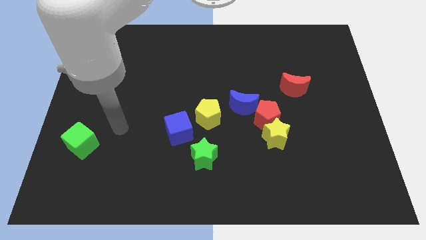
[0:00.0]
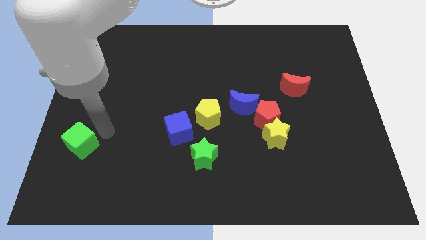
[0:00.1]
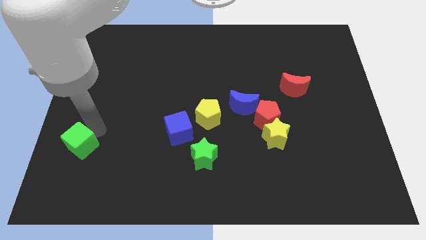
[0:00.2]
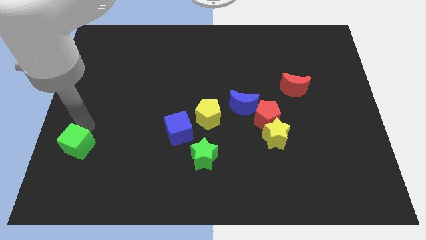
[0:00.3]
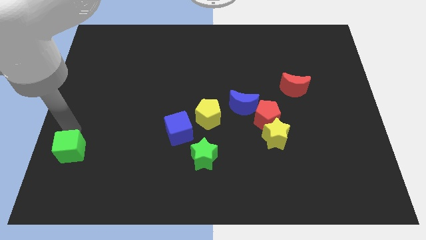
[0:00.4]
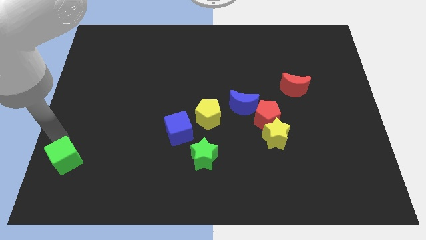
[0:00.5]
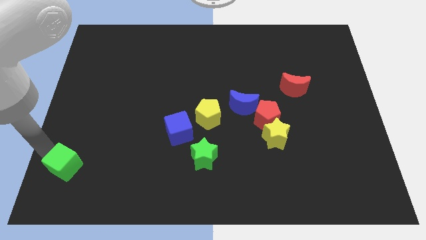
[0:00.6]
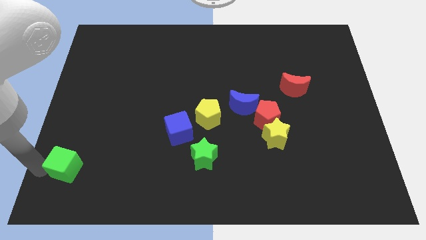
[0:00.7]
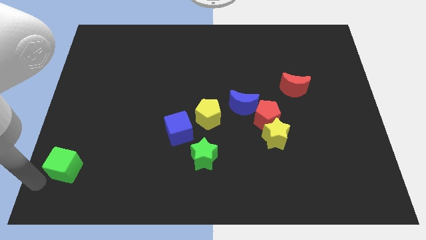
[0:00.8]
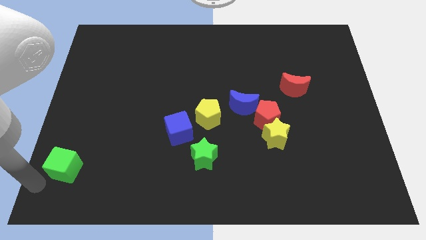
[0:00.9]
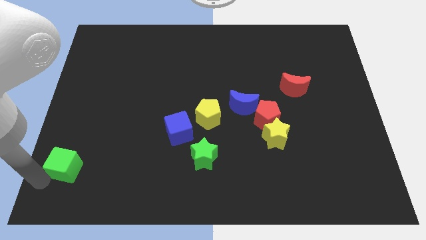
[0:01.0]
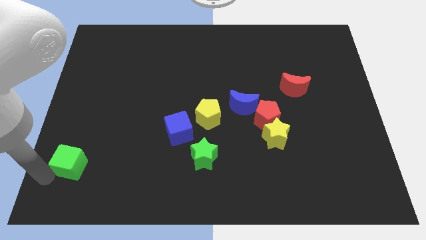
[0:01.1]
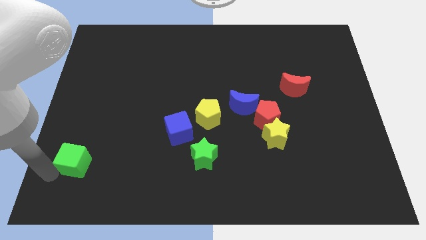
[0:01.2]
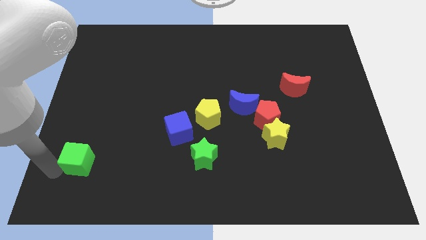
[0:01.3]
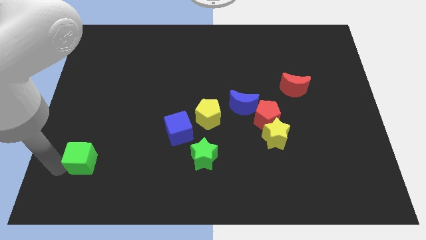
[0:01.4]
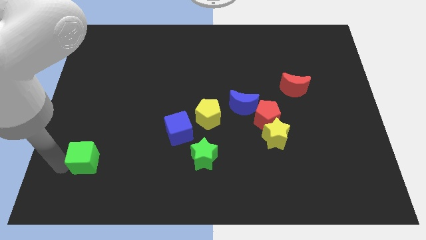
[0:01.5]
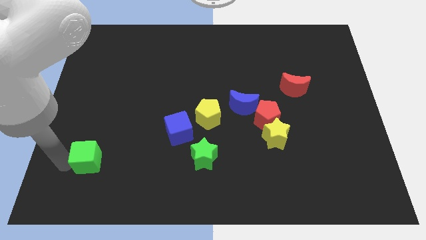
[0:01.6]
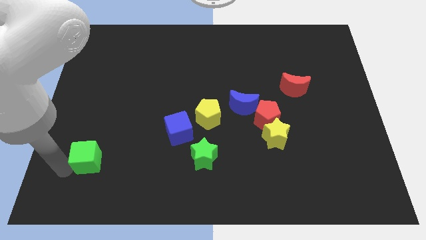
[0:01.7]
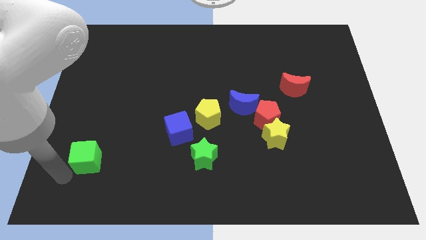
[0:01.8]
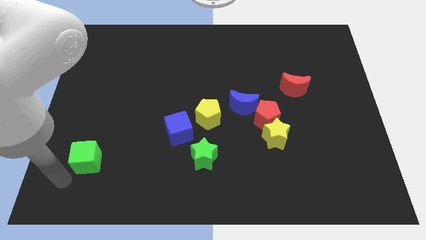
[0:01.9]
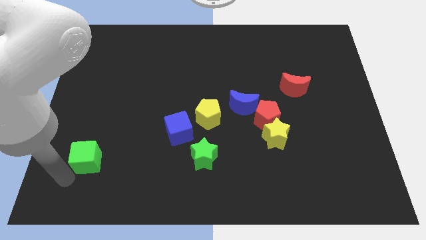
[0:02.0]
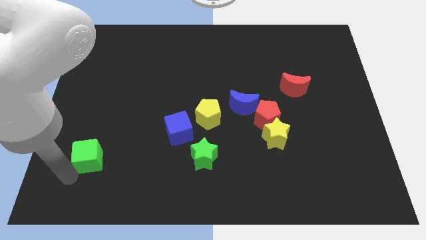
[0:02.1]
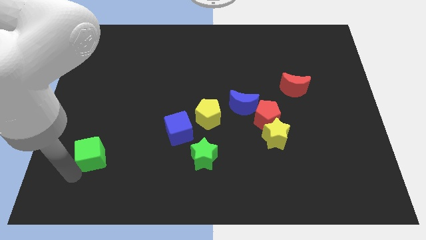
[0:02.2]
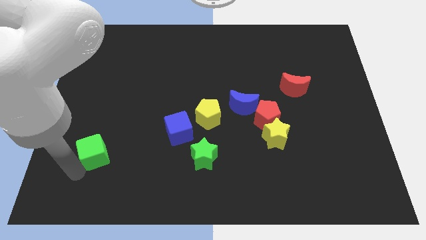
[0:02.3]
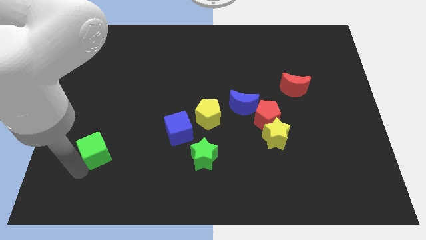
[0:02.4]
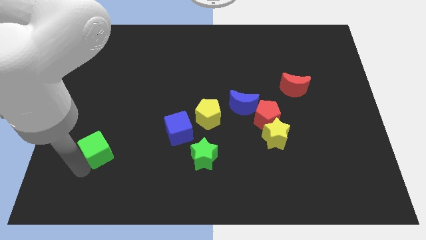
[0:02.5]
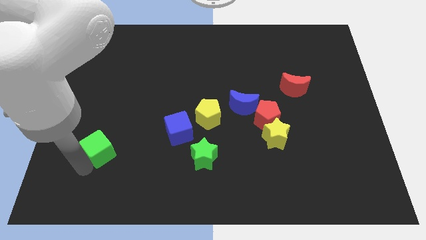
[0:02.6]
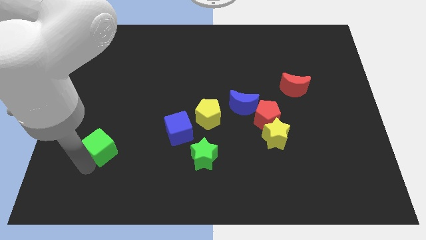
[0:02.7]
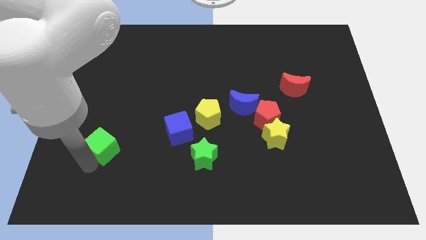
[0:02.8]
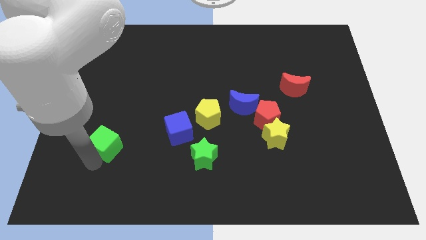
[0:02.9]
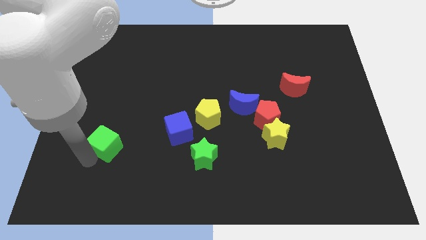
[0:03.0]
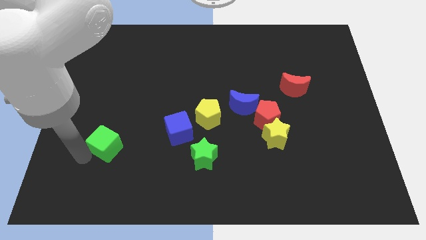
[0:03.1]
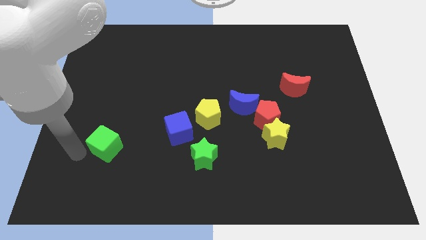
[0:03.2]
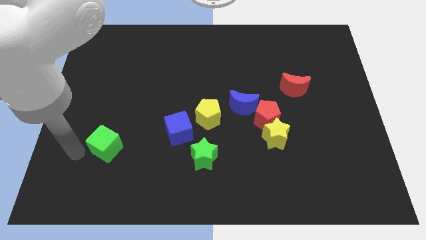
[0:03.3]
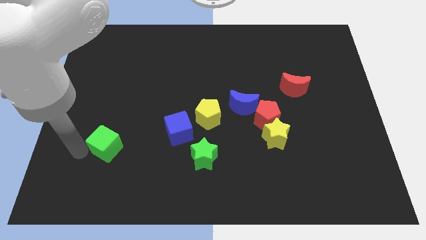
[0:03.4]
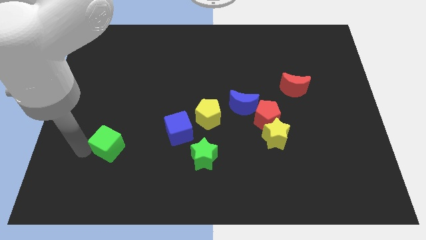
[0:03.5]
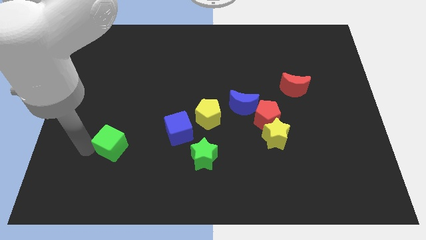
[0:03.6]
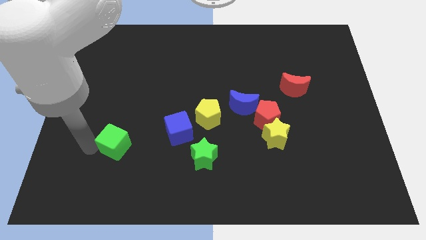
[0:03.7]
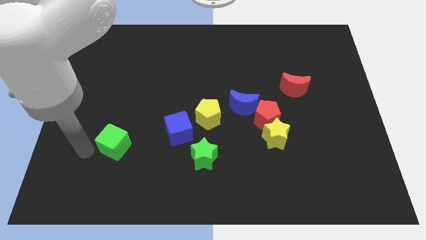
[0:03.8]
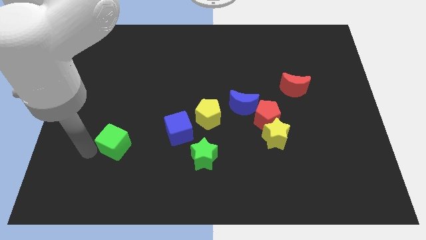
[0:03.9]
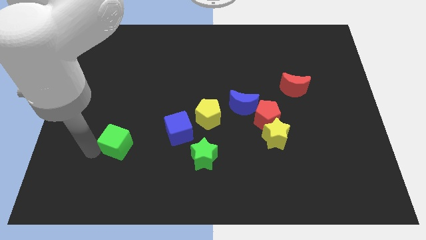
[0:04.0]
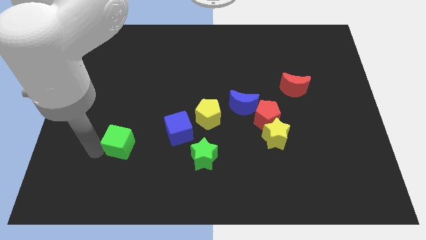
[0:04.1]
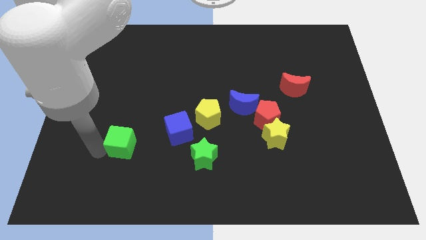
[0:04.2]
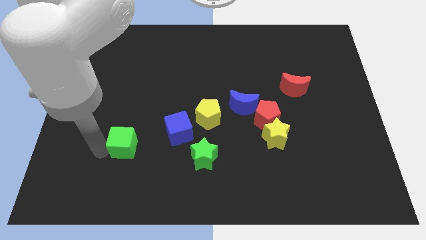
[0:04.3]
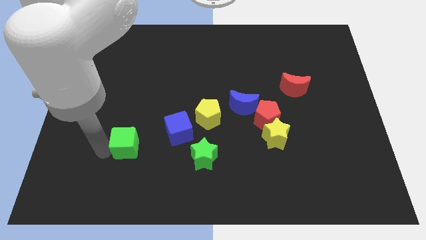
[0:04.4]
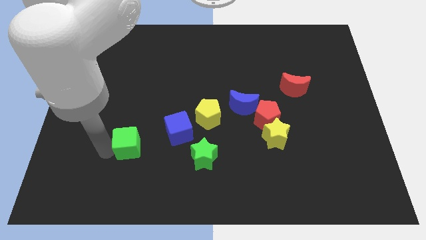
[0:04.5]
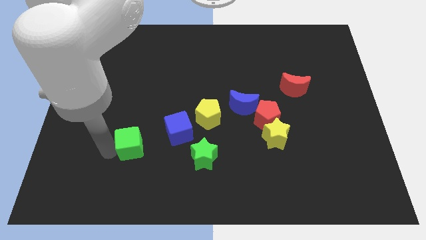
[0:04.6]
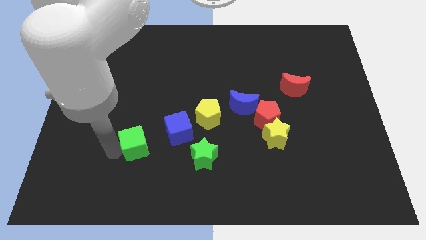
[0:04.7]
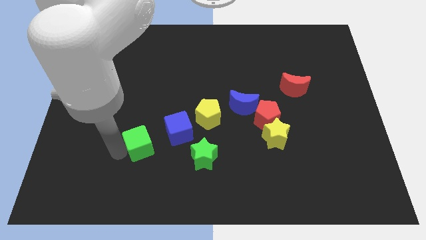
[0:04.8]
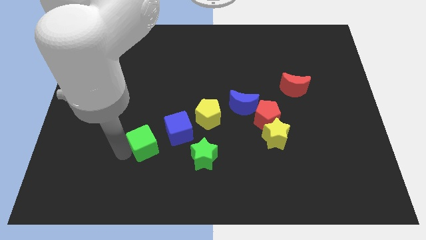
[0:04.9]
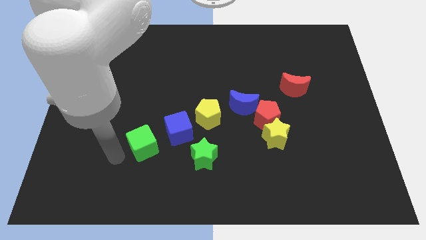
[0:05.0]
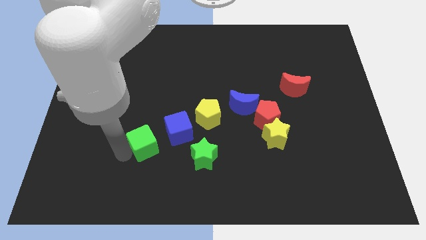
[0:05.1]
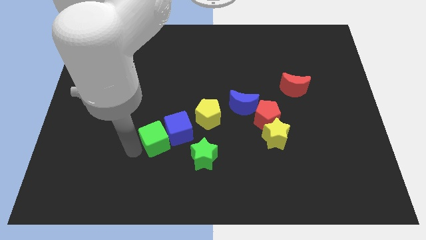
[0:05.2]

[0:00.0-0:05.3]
move the green cube next to the blue cube

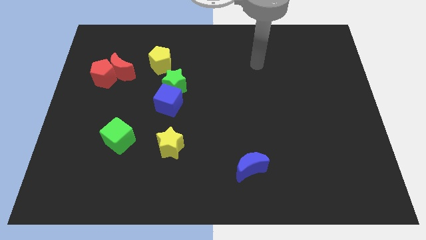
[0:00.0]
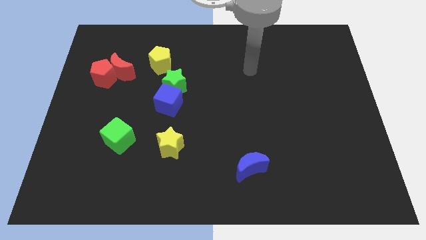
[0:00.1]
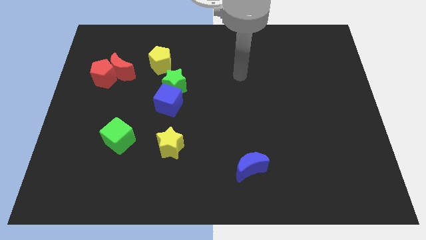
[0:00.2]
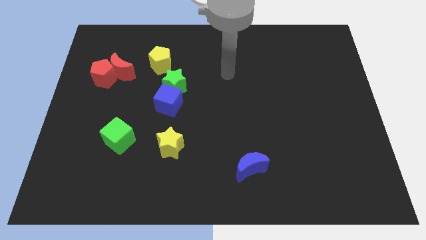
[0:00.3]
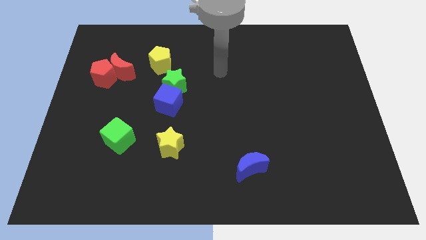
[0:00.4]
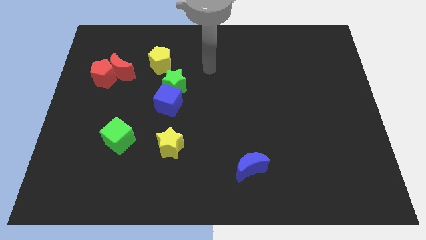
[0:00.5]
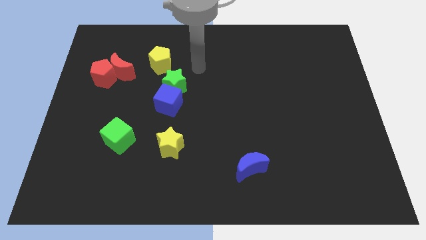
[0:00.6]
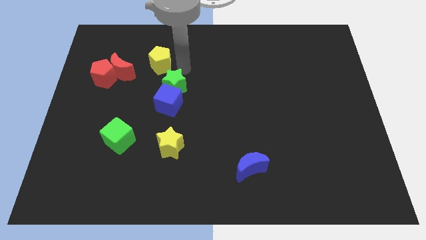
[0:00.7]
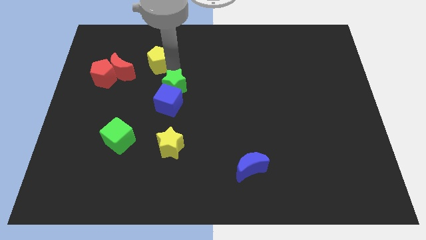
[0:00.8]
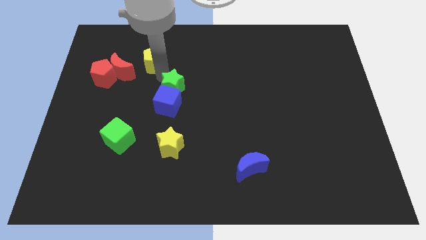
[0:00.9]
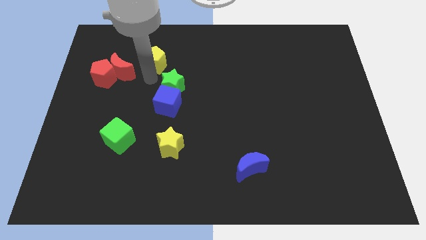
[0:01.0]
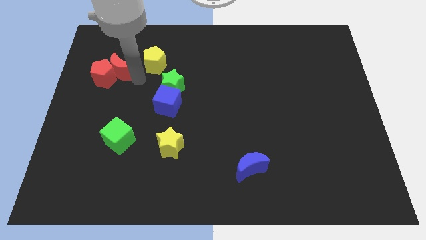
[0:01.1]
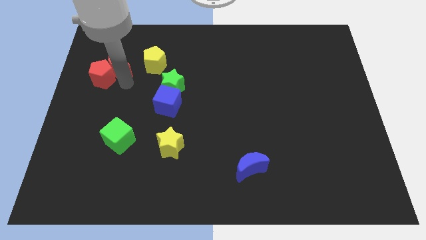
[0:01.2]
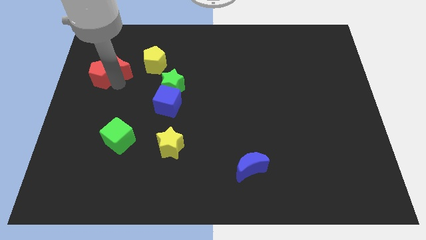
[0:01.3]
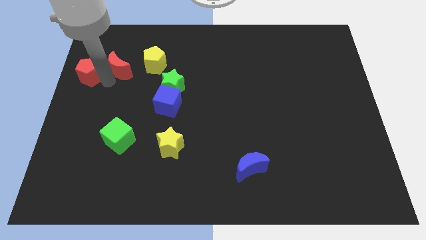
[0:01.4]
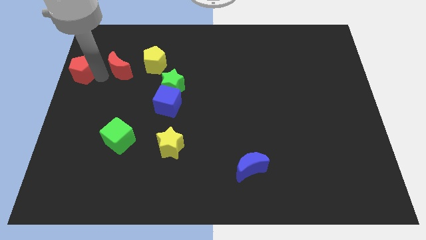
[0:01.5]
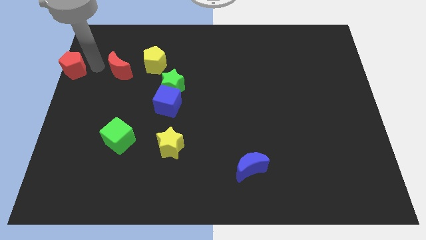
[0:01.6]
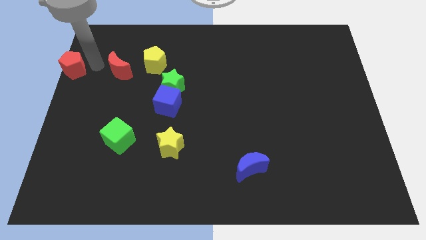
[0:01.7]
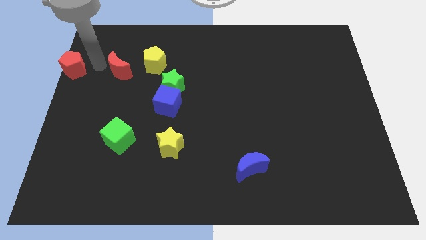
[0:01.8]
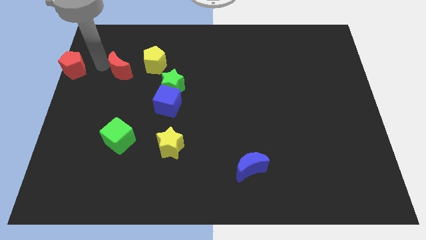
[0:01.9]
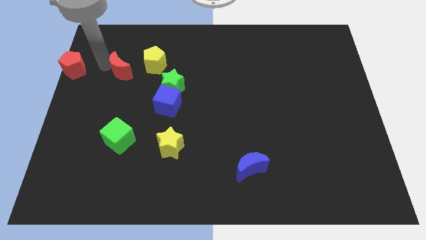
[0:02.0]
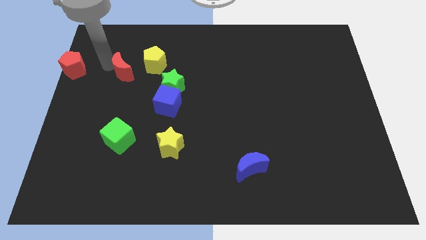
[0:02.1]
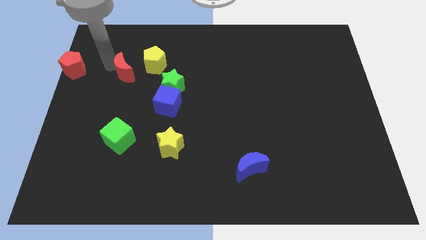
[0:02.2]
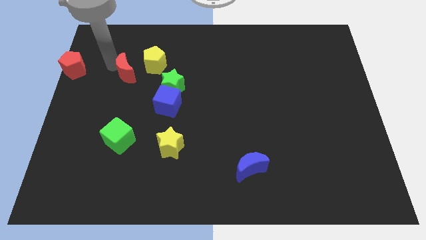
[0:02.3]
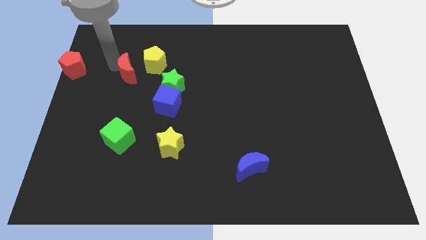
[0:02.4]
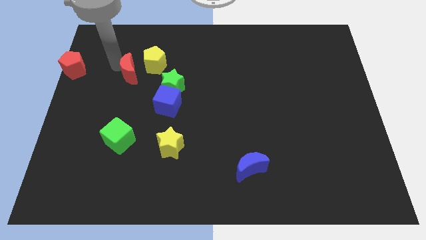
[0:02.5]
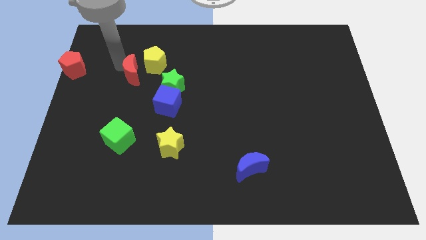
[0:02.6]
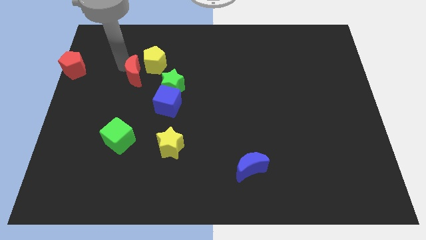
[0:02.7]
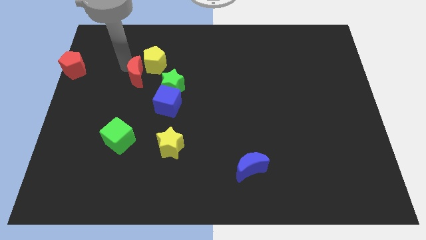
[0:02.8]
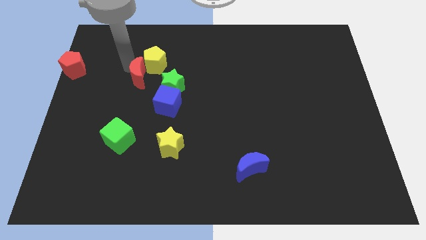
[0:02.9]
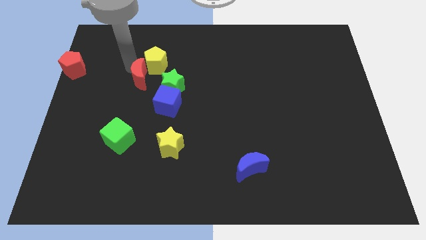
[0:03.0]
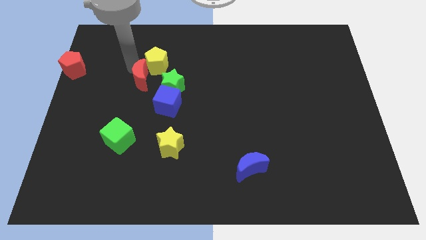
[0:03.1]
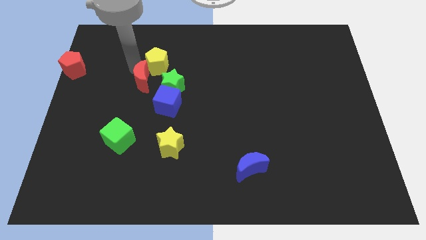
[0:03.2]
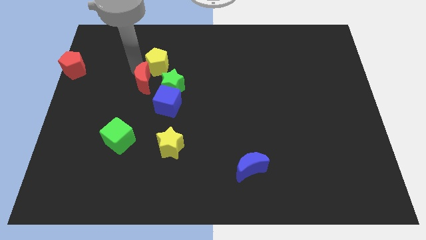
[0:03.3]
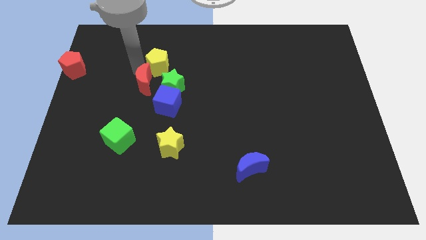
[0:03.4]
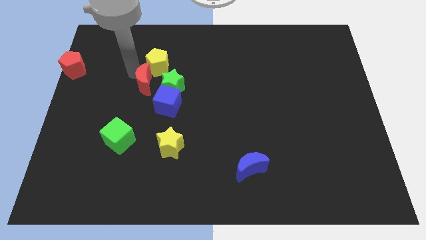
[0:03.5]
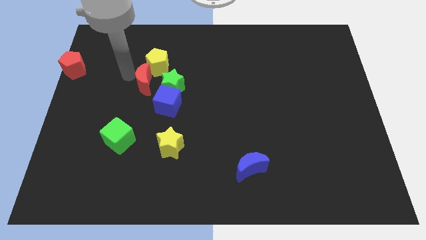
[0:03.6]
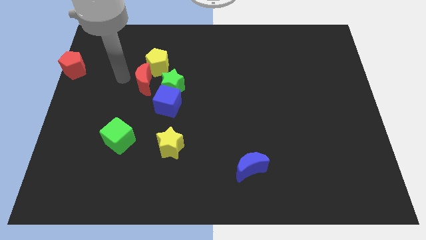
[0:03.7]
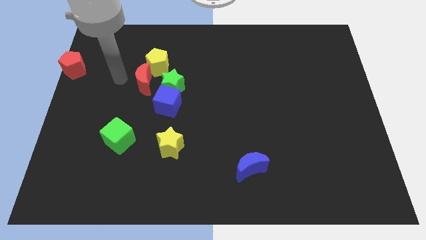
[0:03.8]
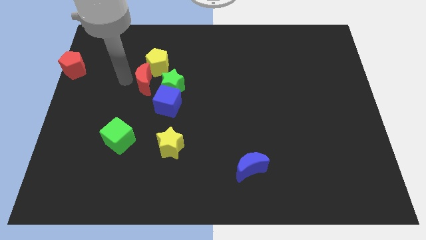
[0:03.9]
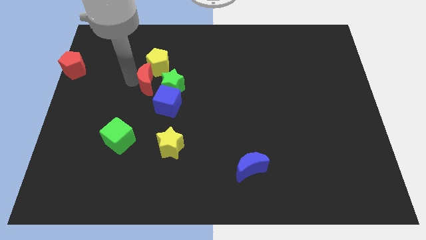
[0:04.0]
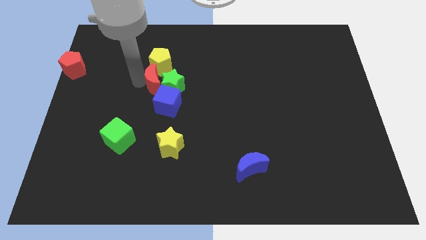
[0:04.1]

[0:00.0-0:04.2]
put the red moon next to the green star
